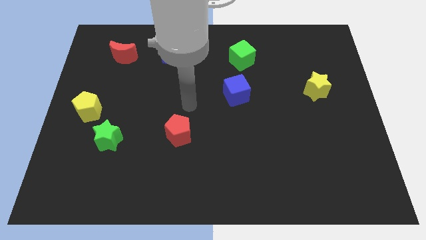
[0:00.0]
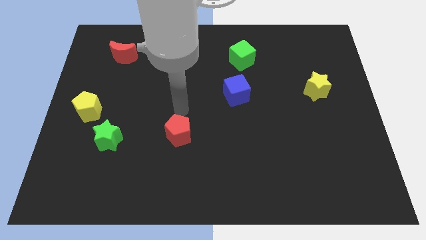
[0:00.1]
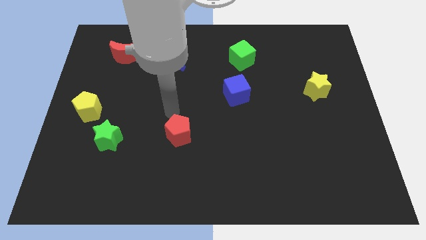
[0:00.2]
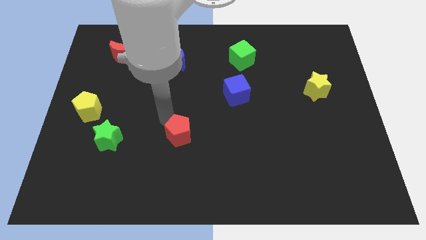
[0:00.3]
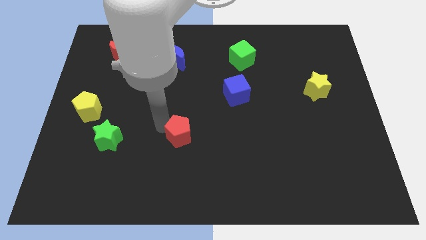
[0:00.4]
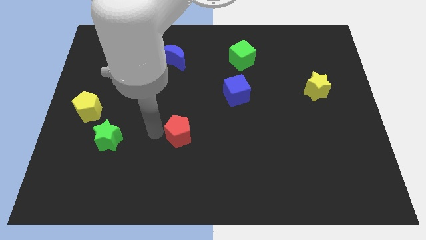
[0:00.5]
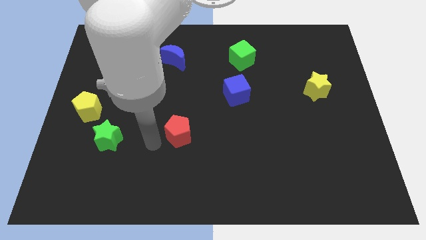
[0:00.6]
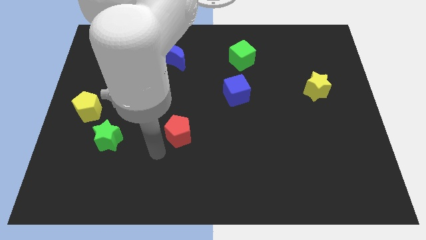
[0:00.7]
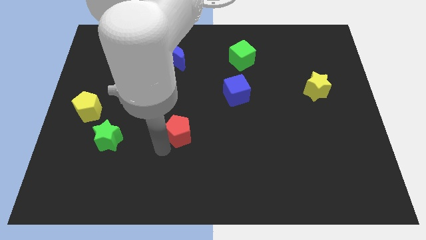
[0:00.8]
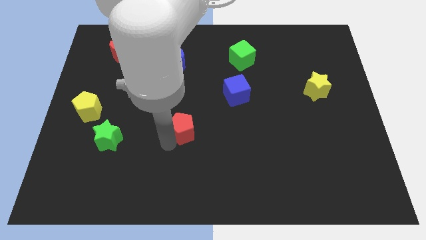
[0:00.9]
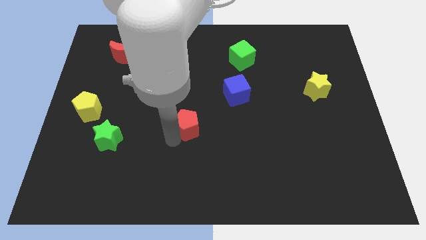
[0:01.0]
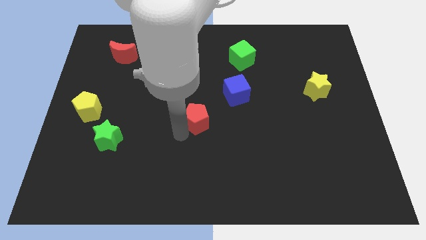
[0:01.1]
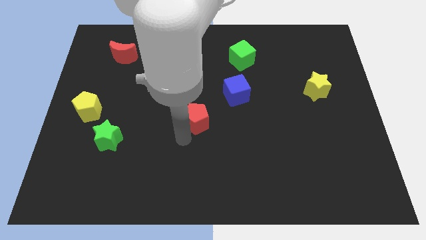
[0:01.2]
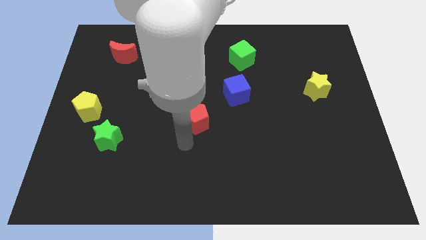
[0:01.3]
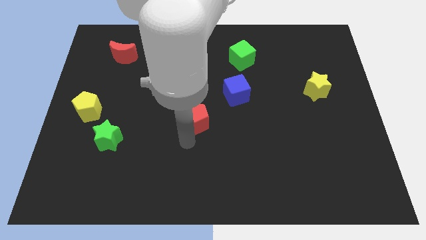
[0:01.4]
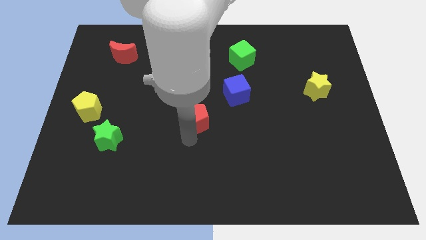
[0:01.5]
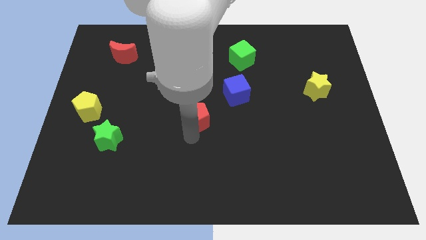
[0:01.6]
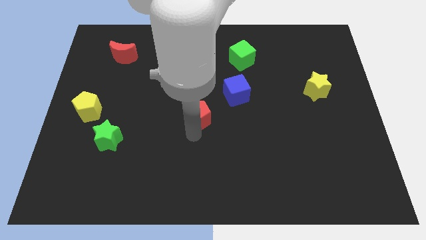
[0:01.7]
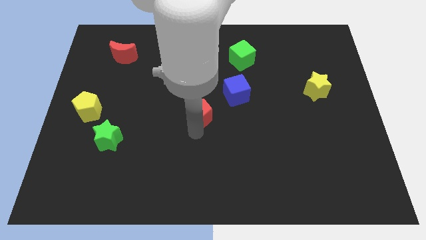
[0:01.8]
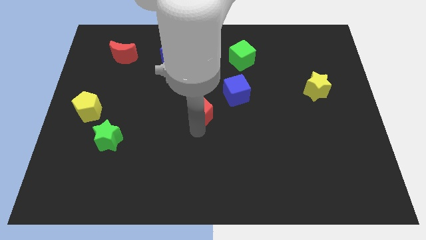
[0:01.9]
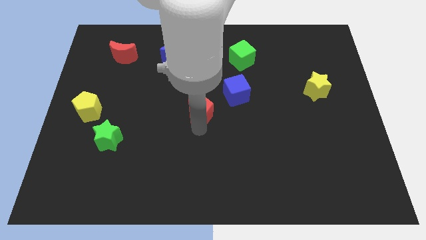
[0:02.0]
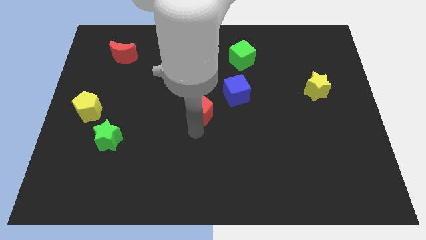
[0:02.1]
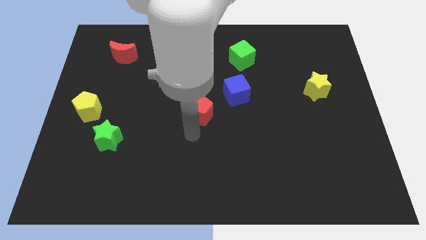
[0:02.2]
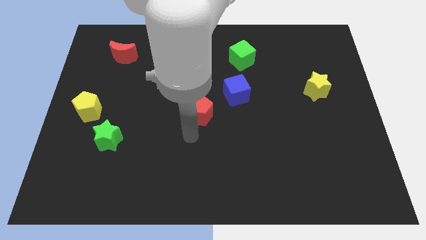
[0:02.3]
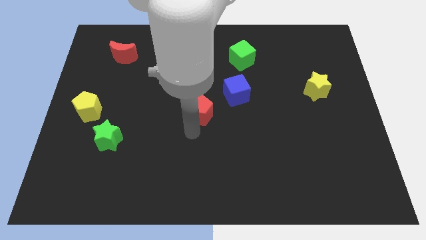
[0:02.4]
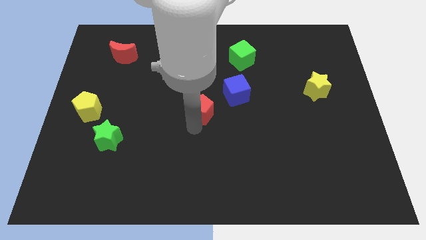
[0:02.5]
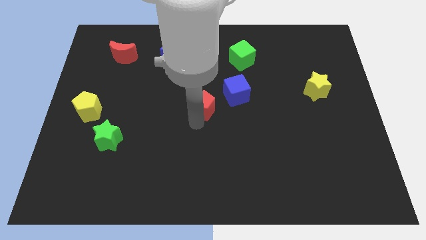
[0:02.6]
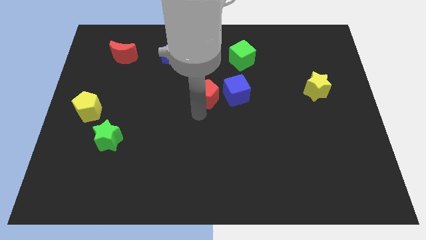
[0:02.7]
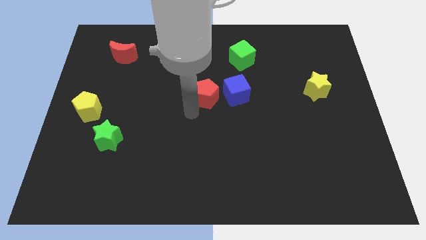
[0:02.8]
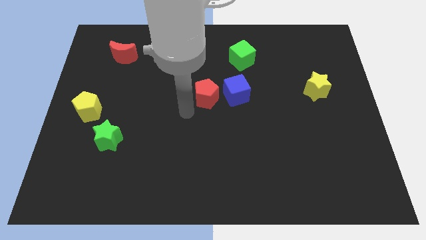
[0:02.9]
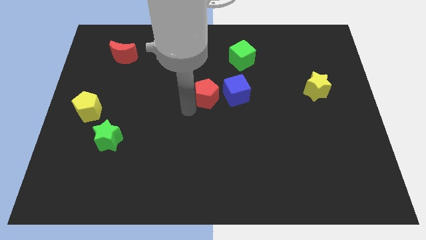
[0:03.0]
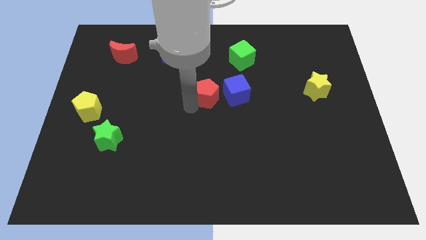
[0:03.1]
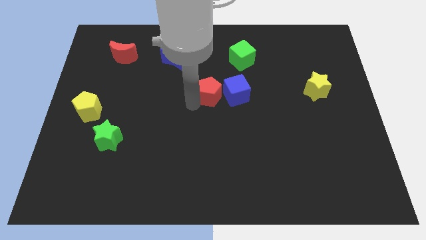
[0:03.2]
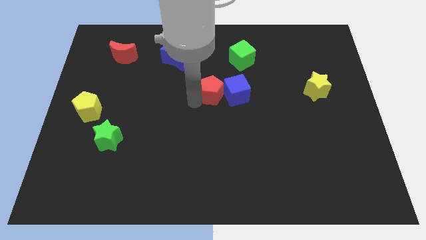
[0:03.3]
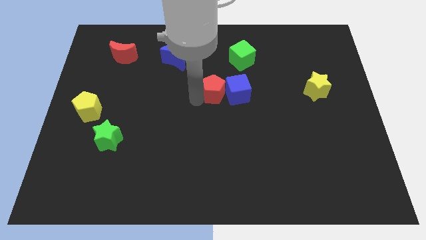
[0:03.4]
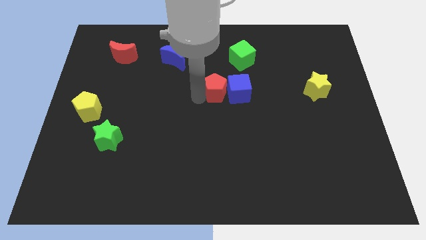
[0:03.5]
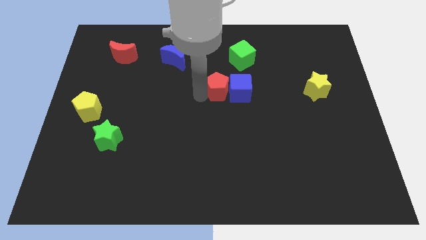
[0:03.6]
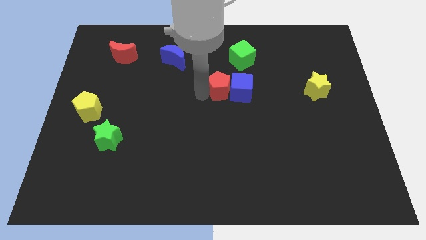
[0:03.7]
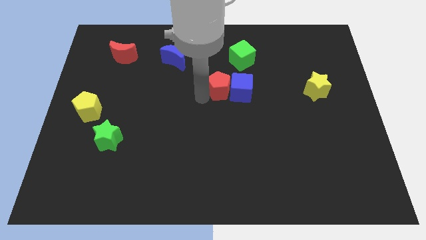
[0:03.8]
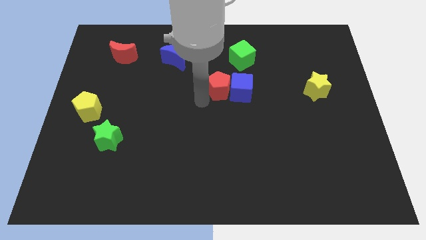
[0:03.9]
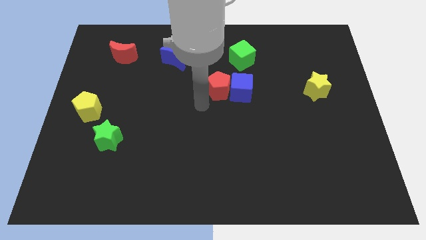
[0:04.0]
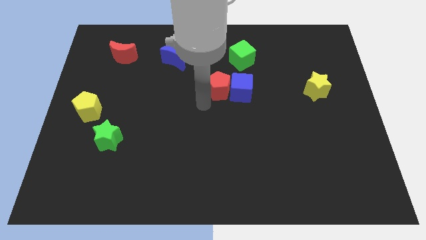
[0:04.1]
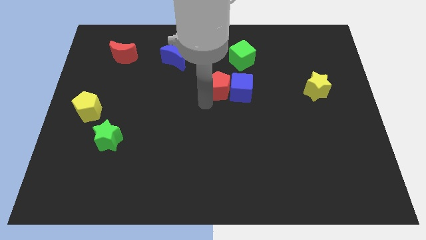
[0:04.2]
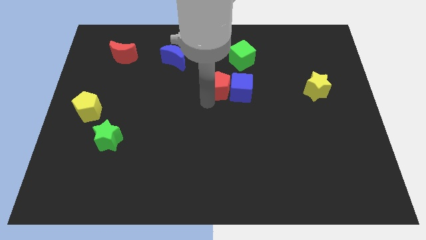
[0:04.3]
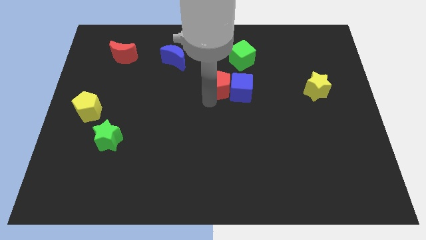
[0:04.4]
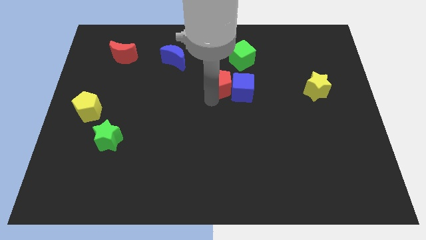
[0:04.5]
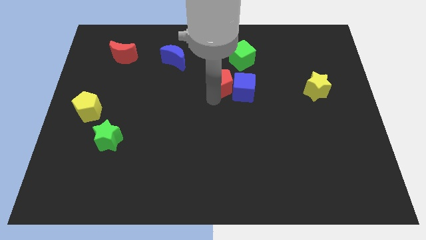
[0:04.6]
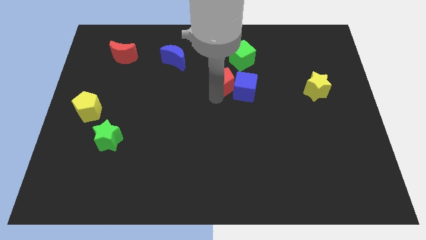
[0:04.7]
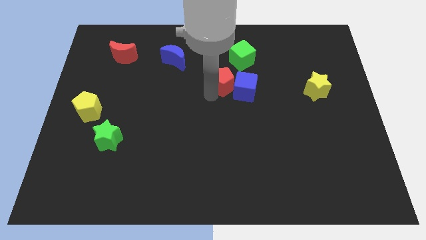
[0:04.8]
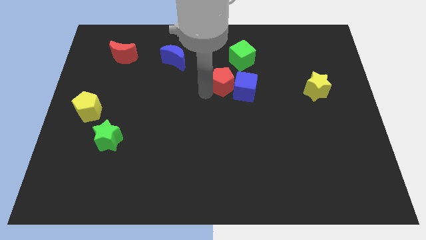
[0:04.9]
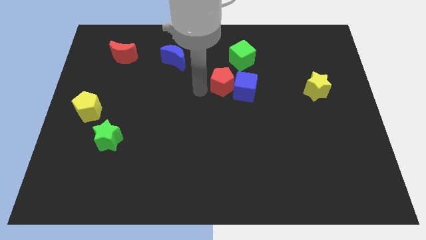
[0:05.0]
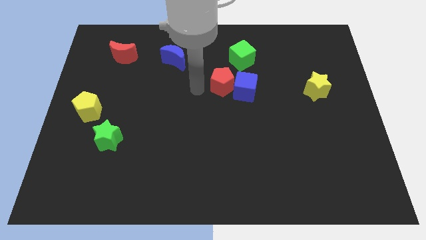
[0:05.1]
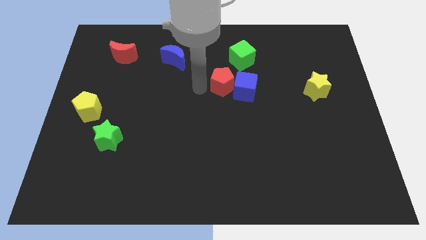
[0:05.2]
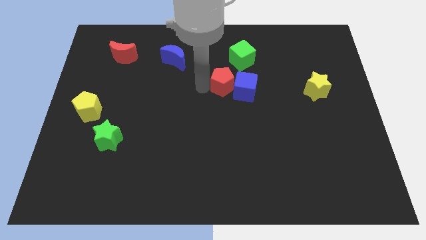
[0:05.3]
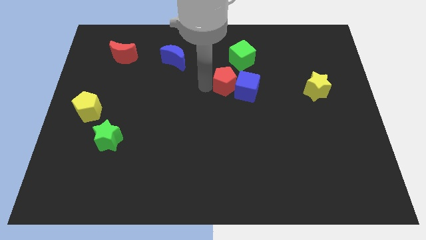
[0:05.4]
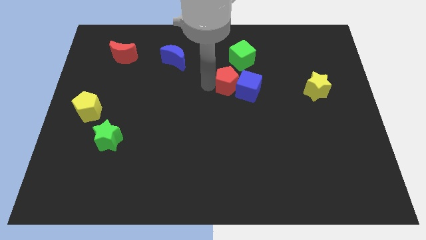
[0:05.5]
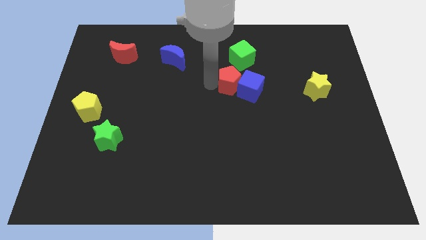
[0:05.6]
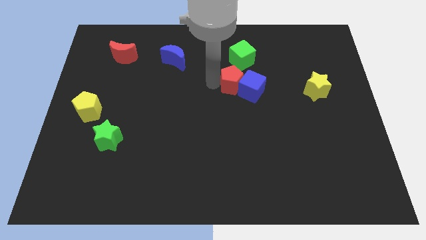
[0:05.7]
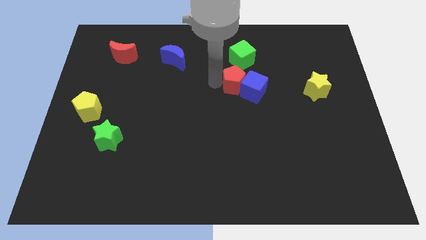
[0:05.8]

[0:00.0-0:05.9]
push the red pentagon upwards and right diagonally

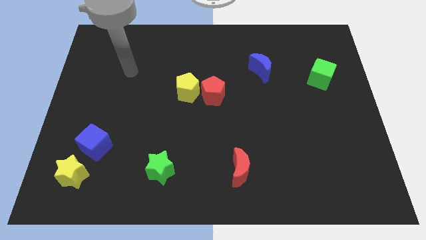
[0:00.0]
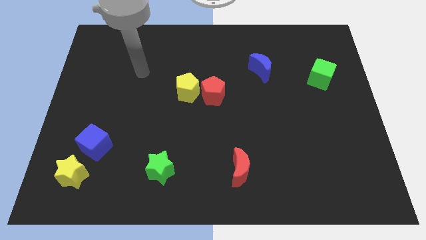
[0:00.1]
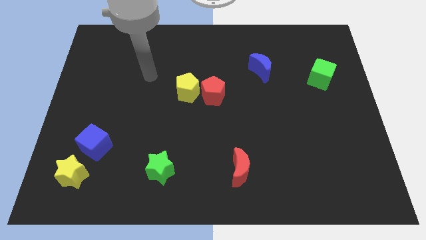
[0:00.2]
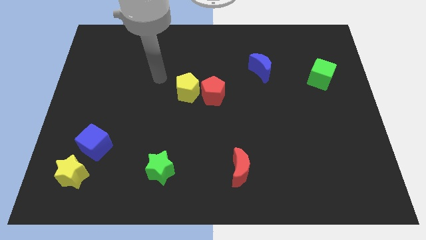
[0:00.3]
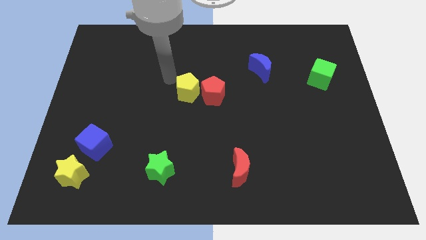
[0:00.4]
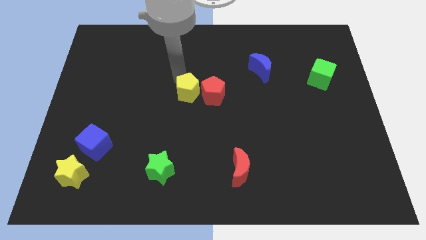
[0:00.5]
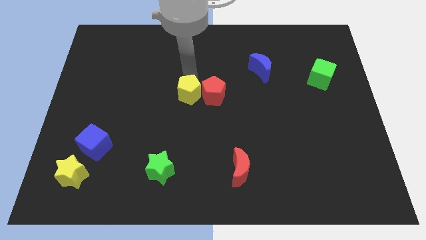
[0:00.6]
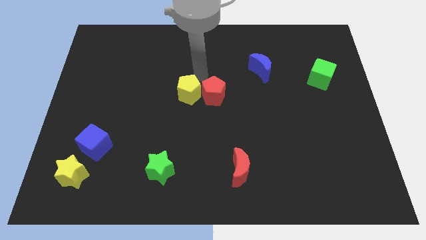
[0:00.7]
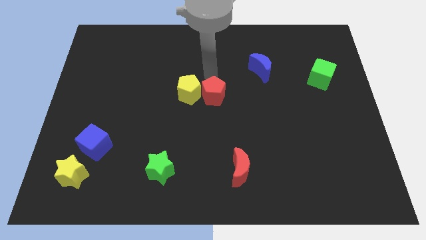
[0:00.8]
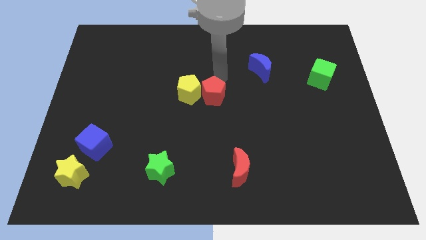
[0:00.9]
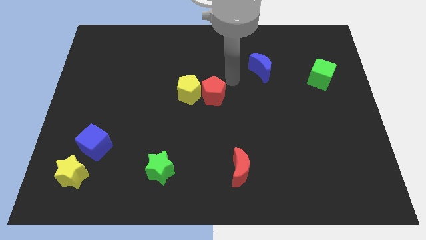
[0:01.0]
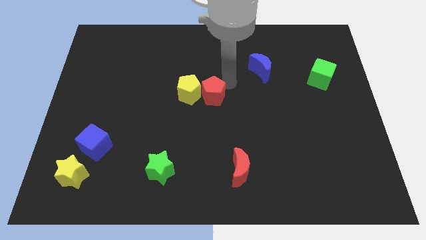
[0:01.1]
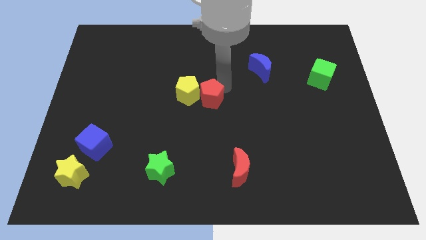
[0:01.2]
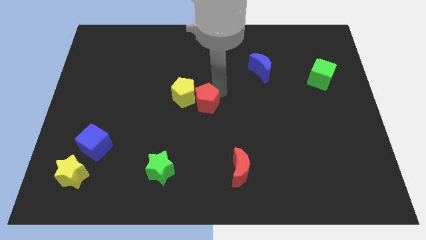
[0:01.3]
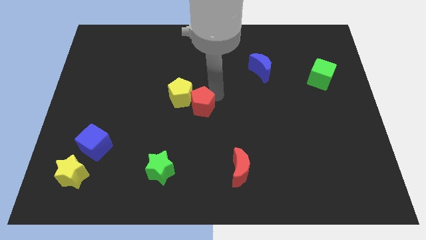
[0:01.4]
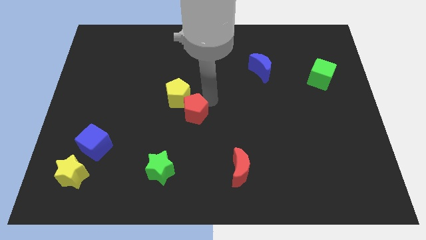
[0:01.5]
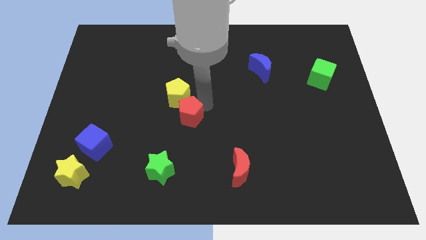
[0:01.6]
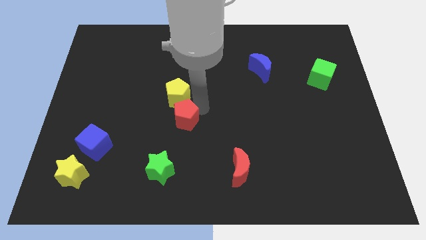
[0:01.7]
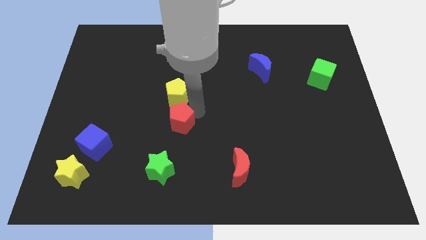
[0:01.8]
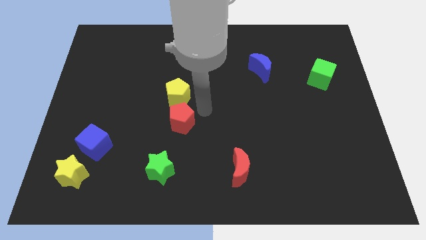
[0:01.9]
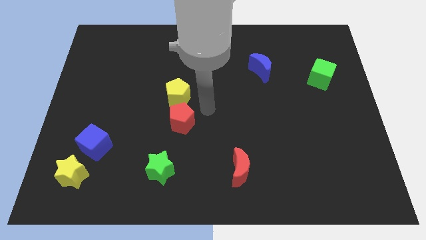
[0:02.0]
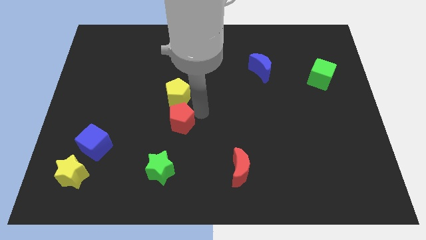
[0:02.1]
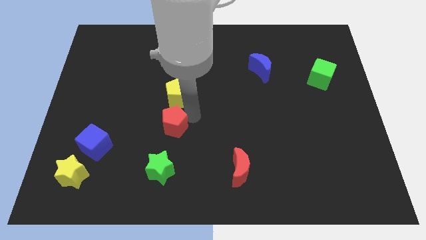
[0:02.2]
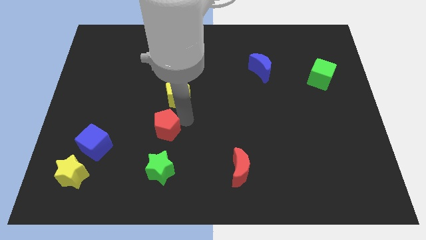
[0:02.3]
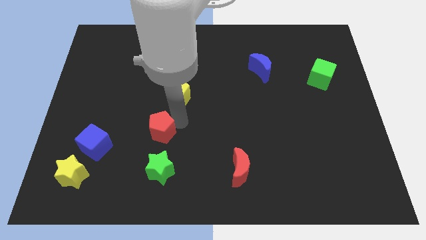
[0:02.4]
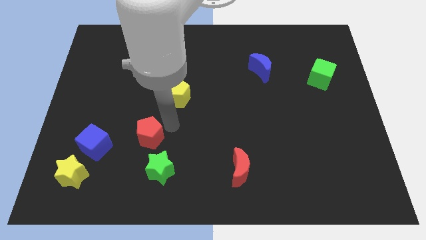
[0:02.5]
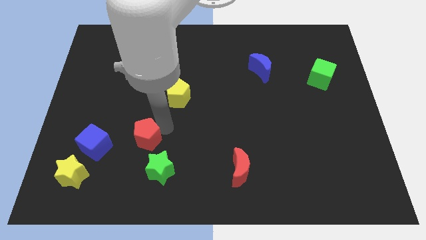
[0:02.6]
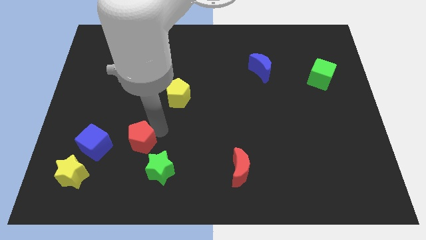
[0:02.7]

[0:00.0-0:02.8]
move the red pentagon downwards and to the left
